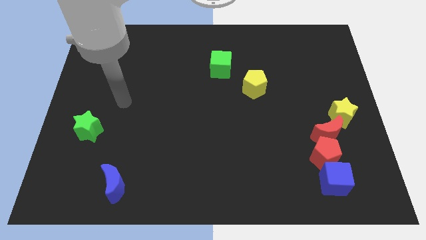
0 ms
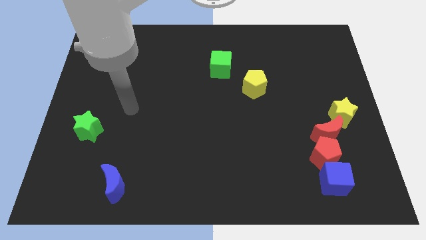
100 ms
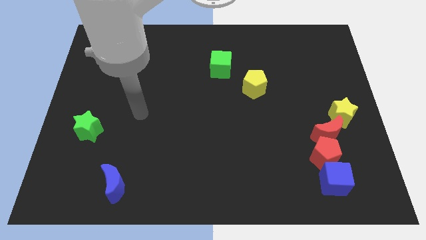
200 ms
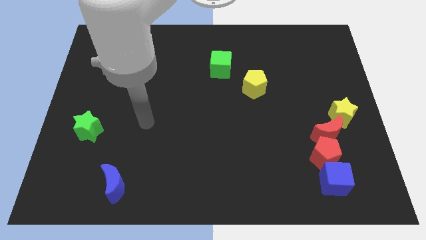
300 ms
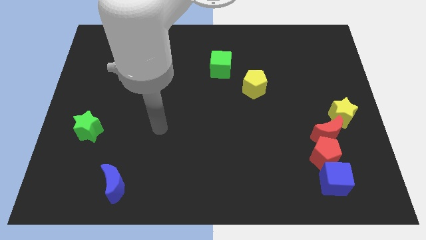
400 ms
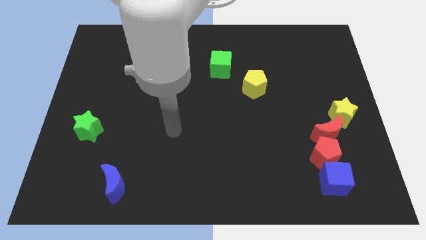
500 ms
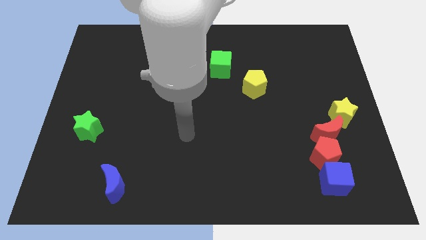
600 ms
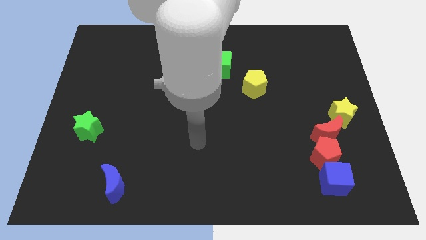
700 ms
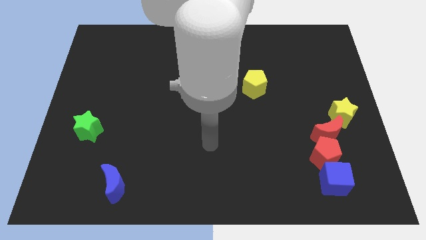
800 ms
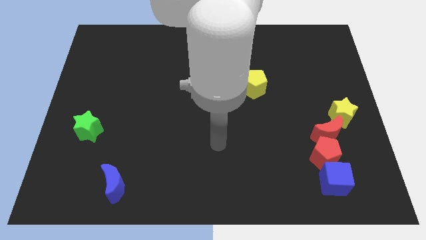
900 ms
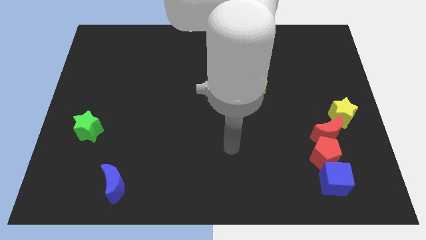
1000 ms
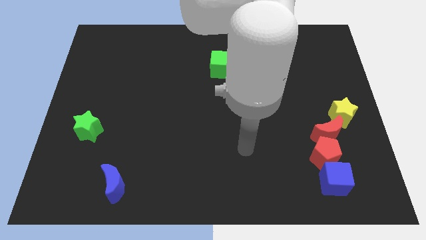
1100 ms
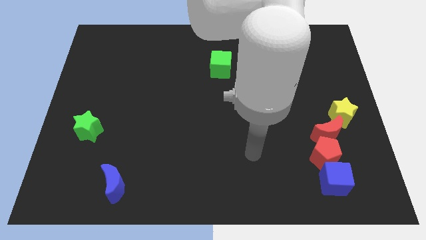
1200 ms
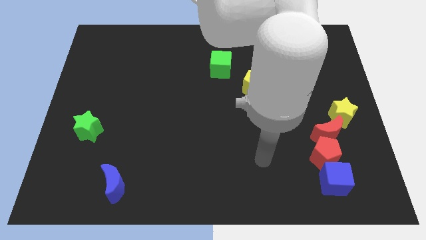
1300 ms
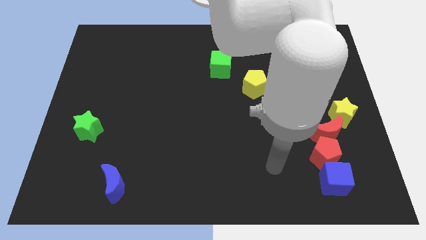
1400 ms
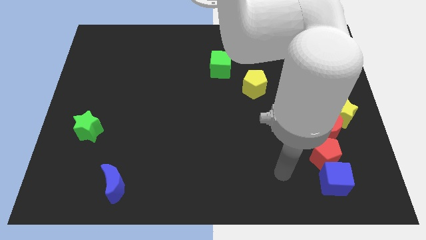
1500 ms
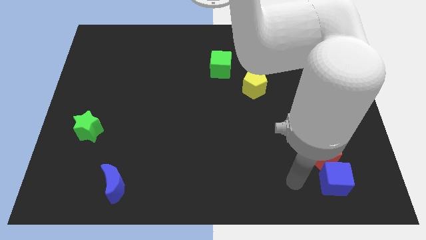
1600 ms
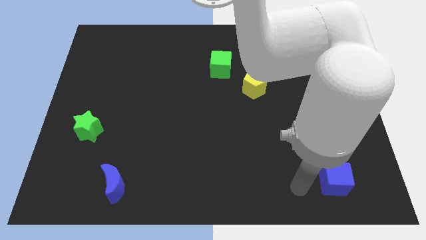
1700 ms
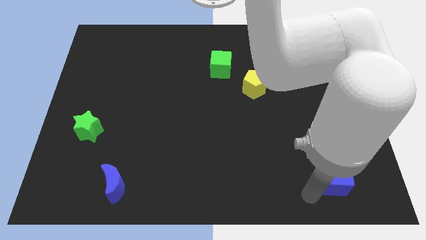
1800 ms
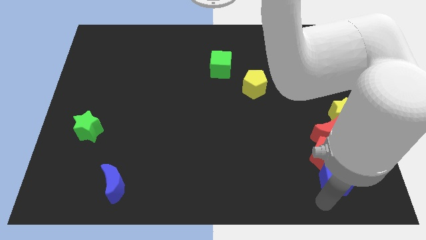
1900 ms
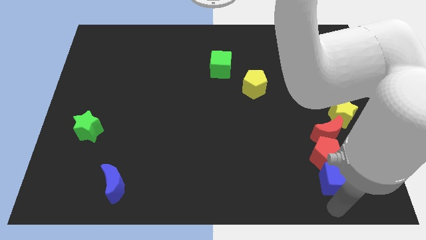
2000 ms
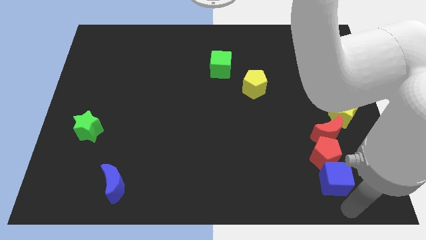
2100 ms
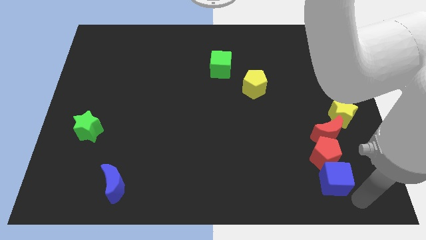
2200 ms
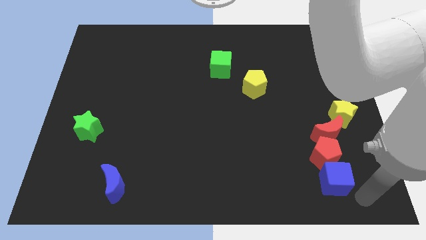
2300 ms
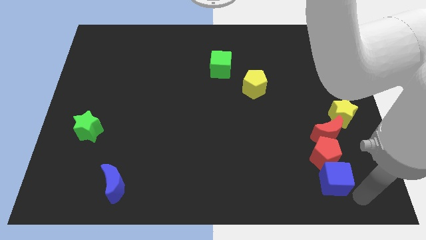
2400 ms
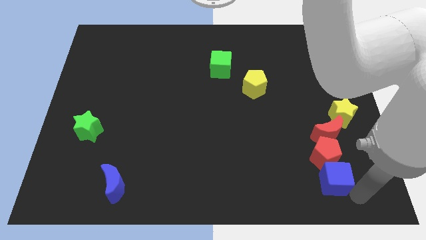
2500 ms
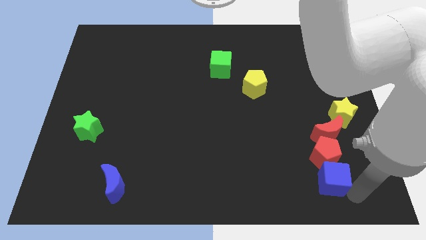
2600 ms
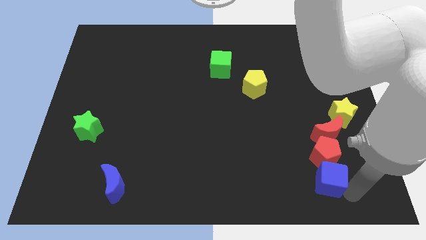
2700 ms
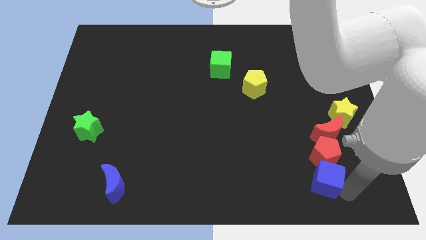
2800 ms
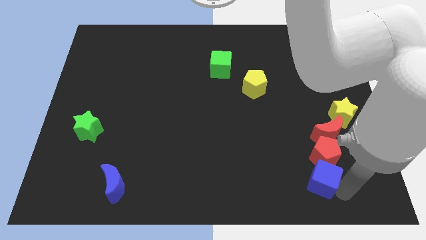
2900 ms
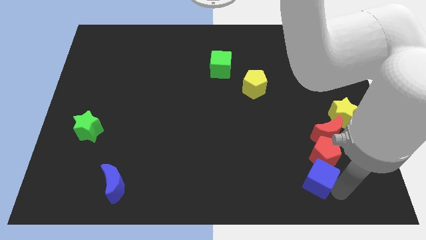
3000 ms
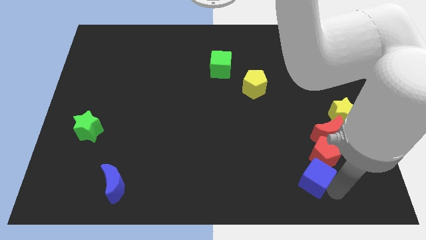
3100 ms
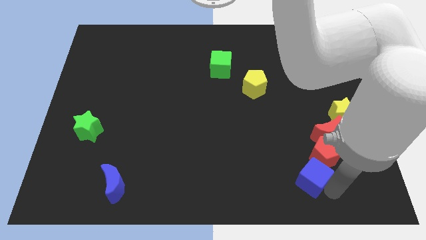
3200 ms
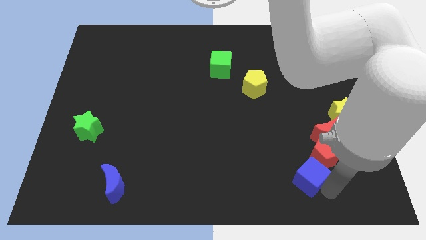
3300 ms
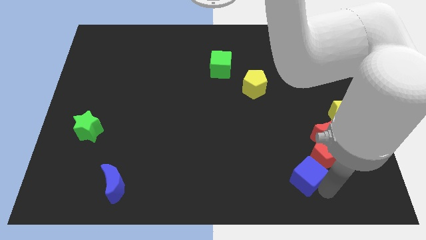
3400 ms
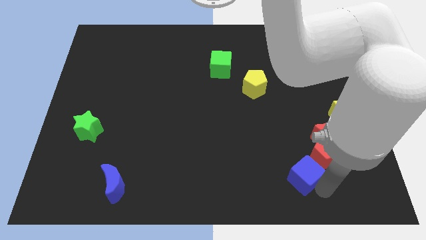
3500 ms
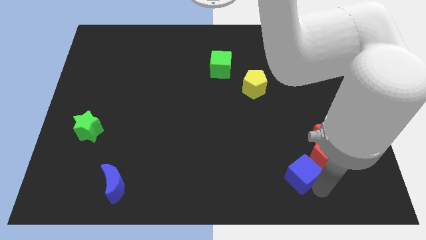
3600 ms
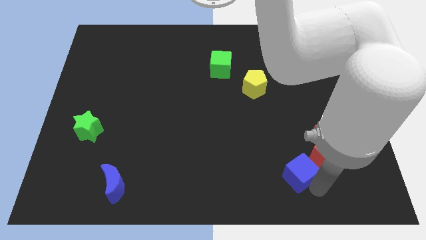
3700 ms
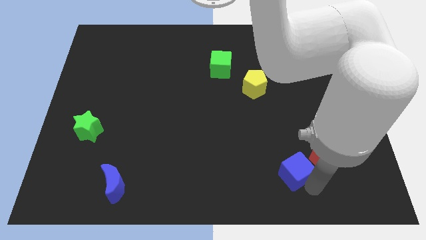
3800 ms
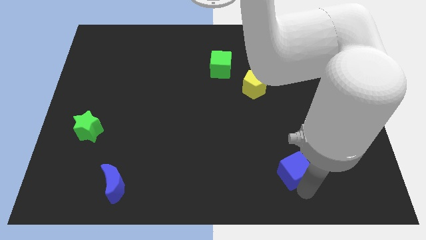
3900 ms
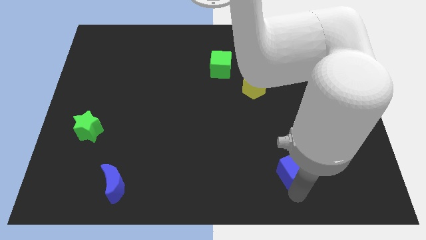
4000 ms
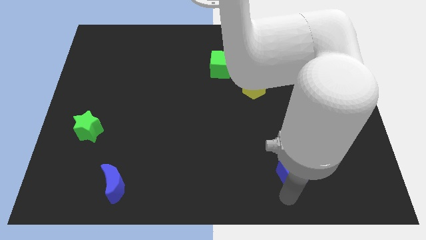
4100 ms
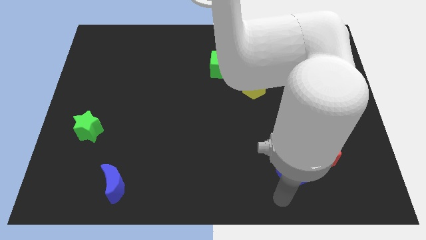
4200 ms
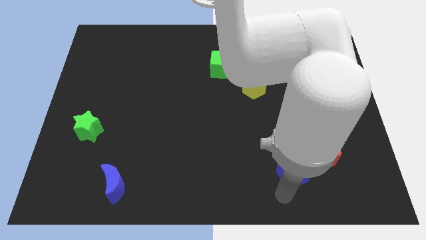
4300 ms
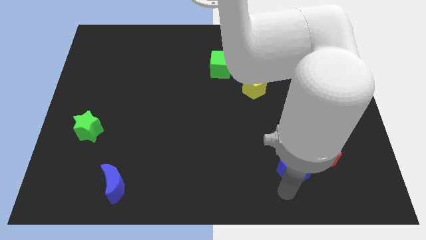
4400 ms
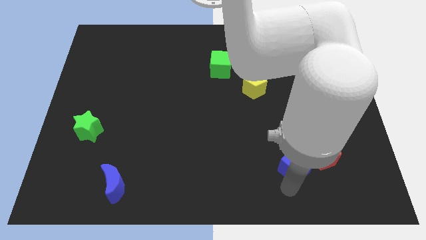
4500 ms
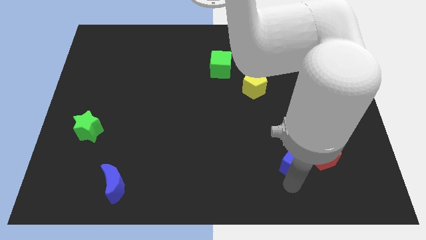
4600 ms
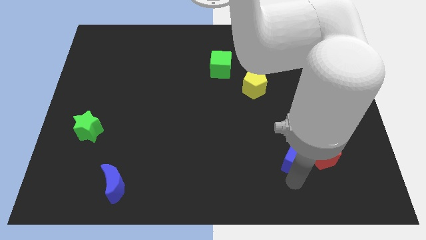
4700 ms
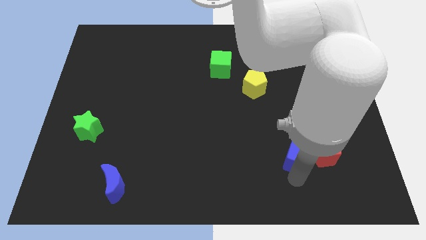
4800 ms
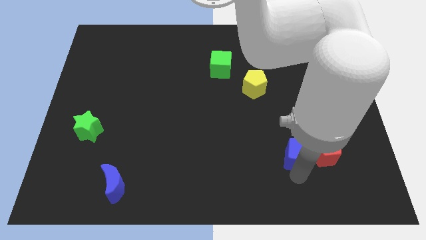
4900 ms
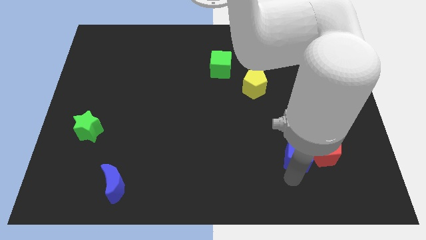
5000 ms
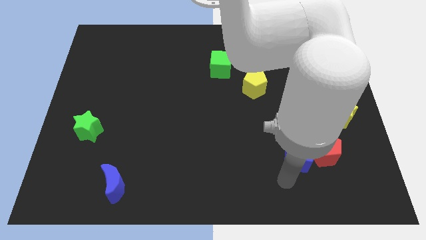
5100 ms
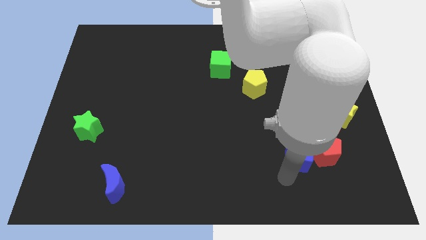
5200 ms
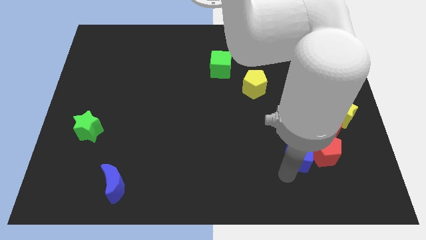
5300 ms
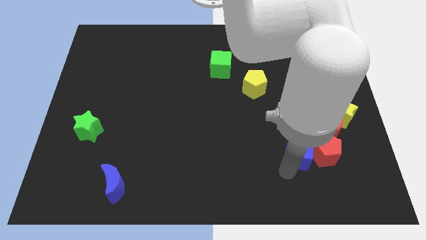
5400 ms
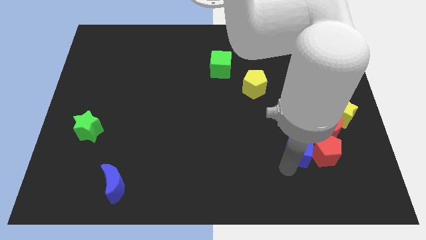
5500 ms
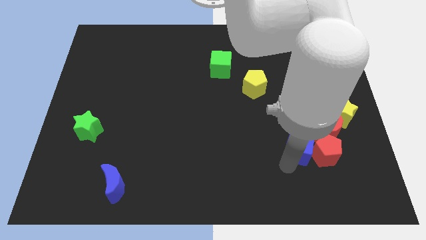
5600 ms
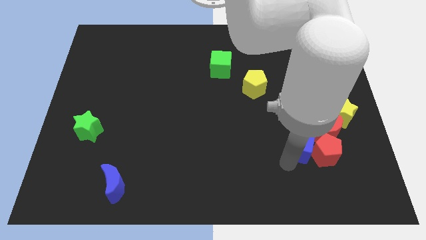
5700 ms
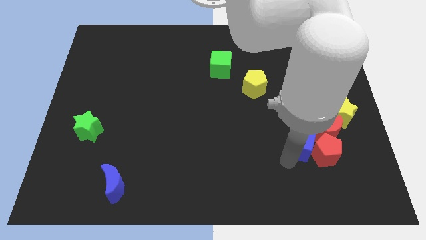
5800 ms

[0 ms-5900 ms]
slide the blue cube a little bit upwards

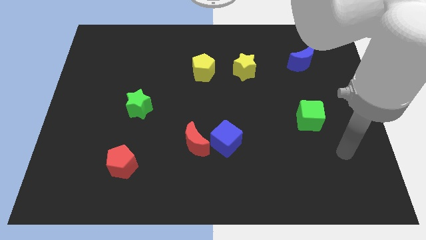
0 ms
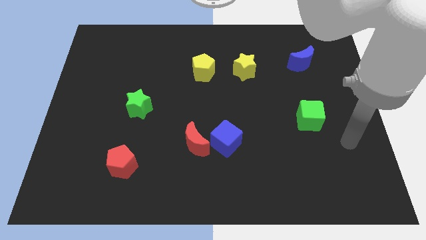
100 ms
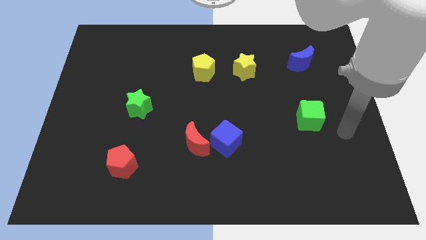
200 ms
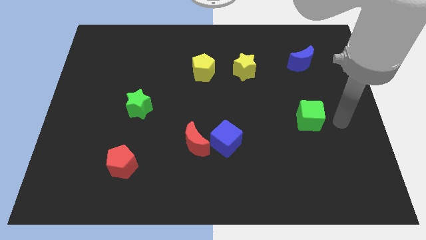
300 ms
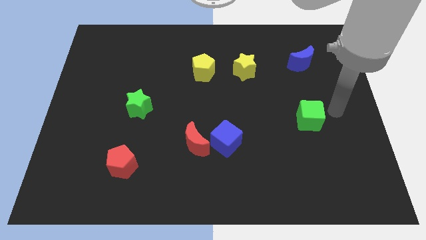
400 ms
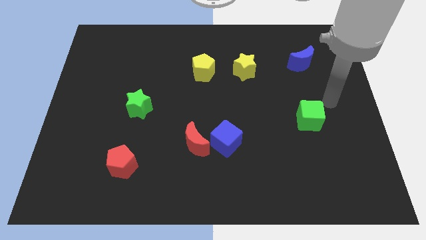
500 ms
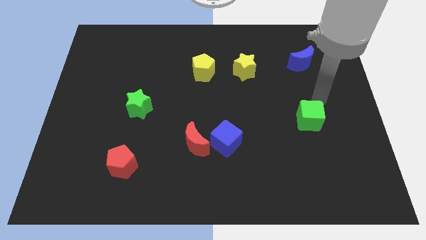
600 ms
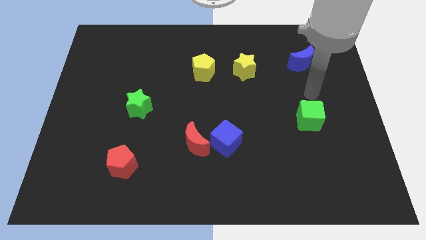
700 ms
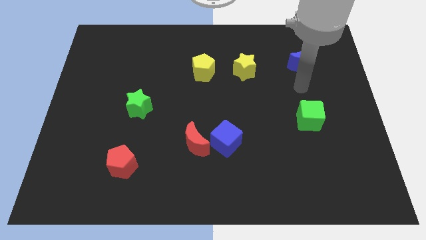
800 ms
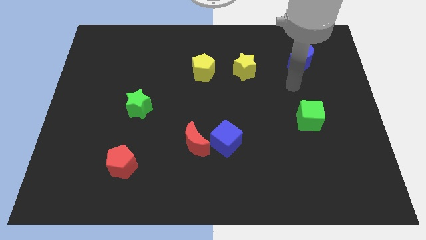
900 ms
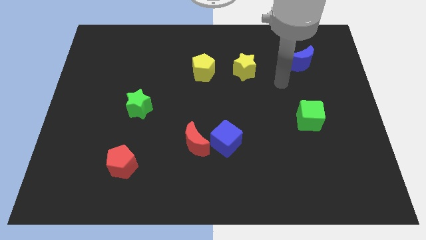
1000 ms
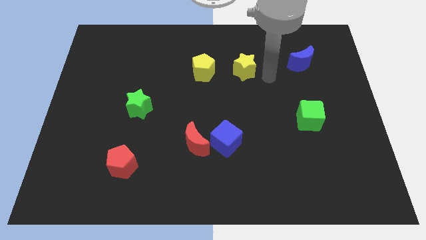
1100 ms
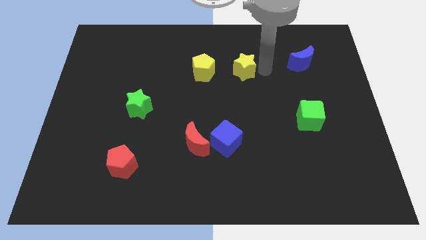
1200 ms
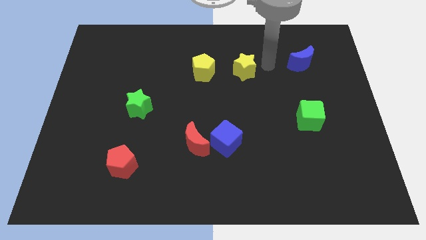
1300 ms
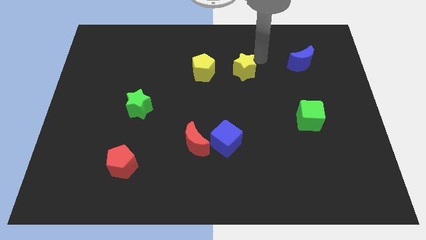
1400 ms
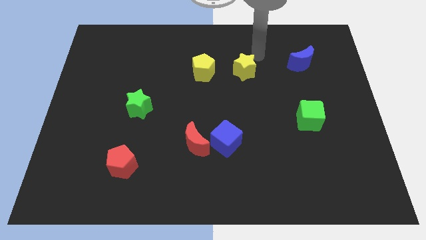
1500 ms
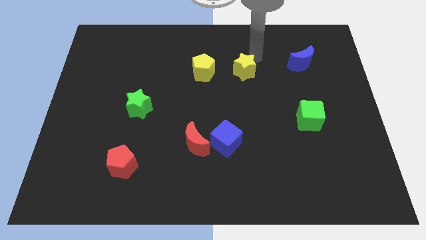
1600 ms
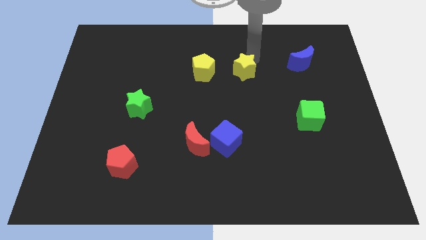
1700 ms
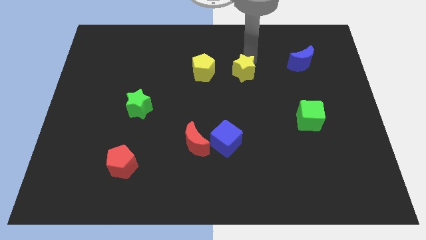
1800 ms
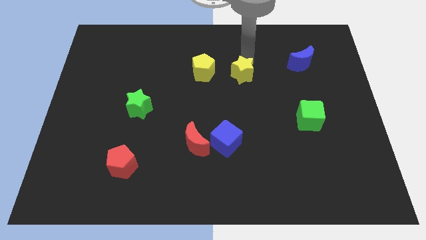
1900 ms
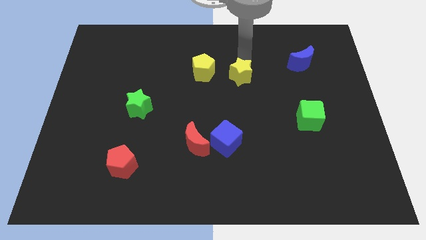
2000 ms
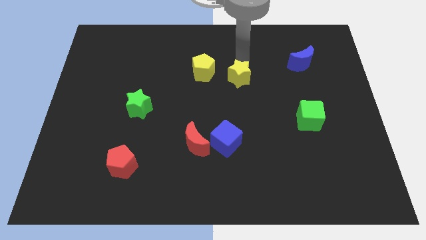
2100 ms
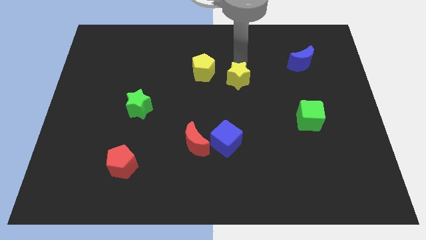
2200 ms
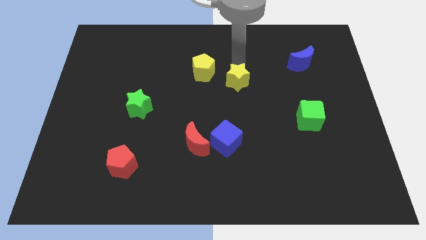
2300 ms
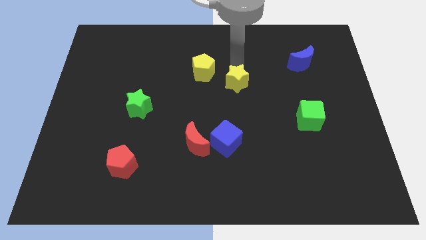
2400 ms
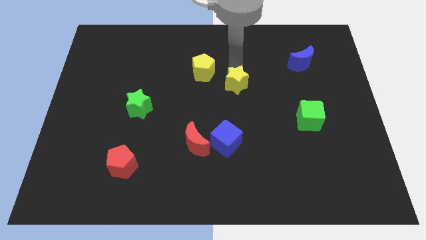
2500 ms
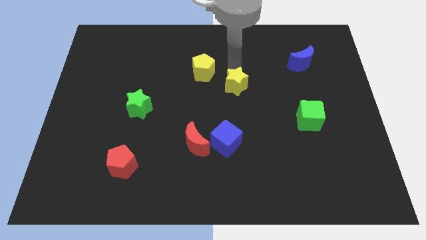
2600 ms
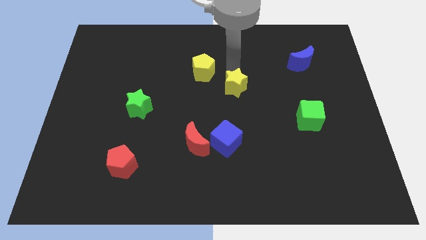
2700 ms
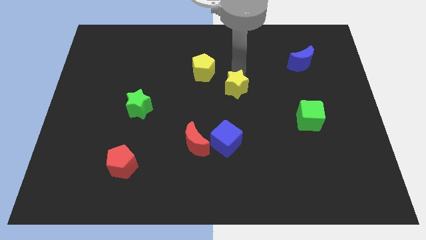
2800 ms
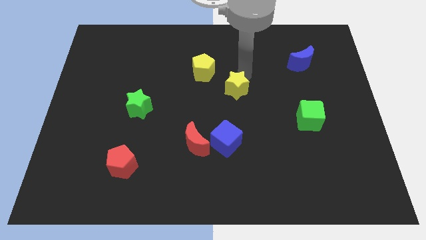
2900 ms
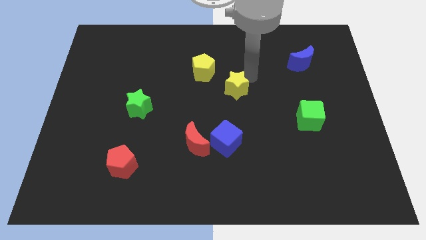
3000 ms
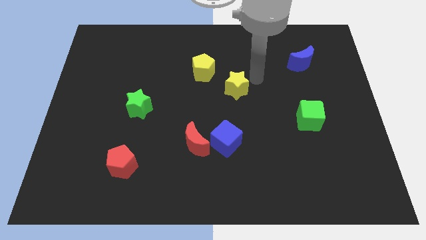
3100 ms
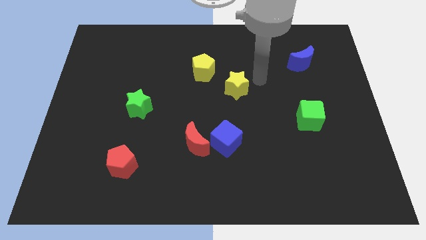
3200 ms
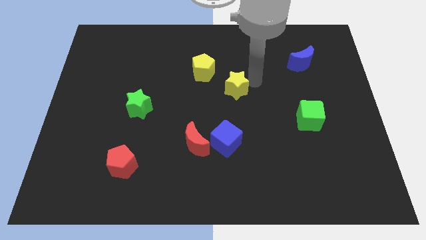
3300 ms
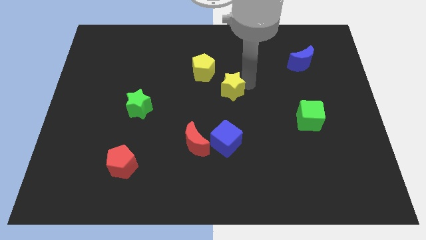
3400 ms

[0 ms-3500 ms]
push the yellow star somewhat down and left diagonally
